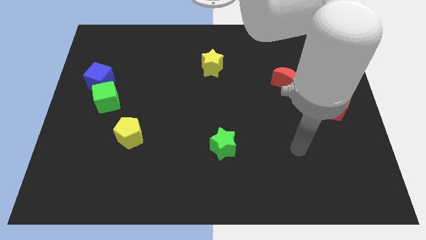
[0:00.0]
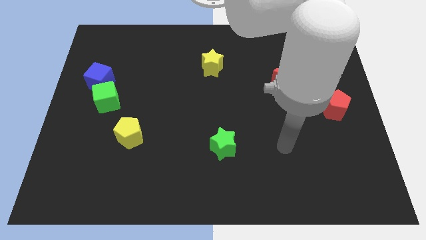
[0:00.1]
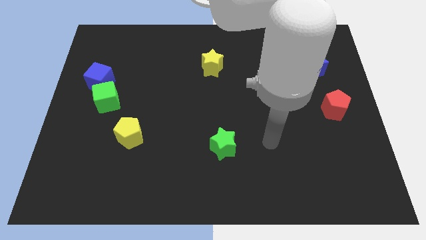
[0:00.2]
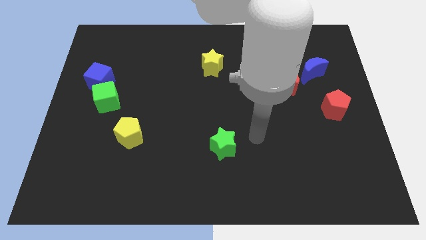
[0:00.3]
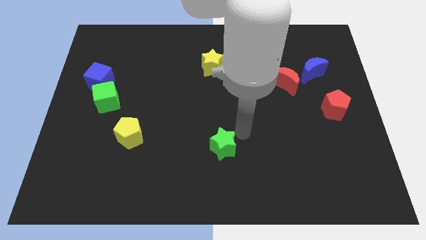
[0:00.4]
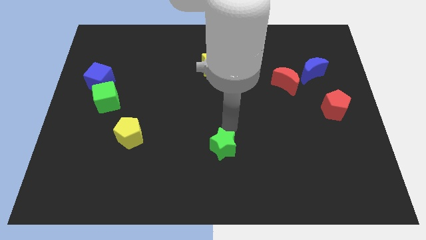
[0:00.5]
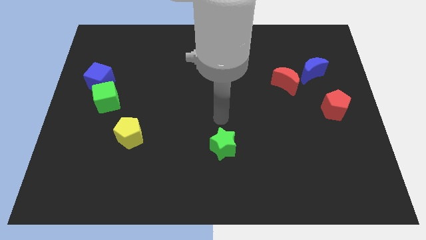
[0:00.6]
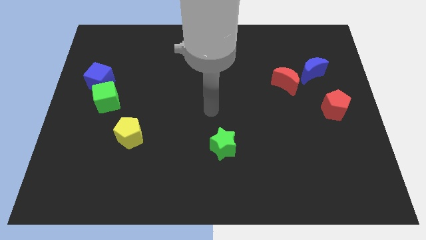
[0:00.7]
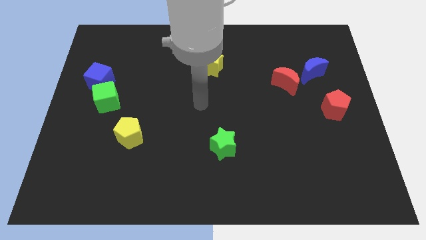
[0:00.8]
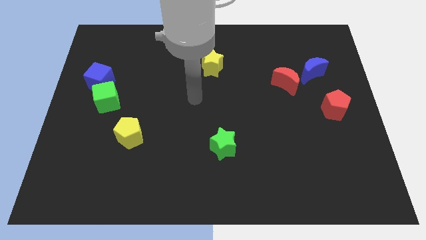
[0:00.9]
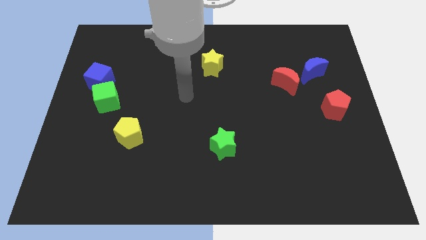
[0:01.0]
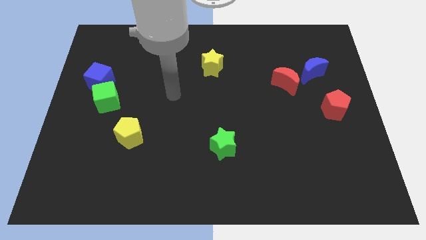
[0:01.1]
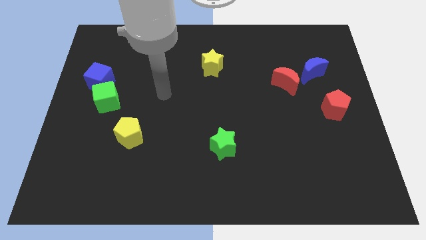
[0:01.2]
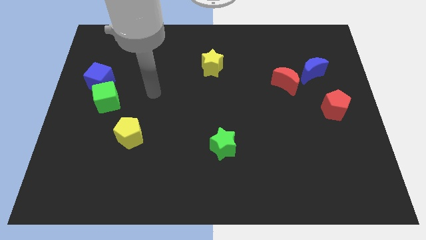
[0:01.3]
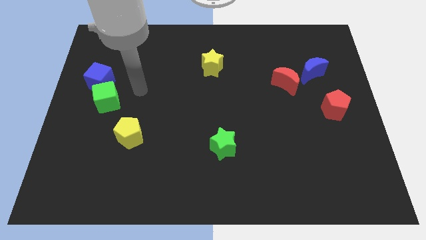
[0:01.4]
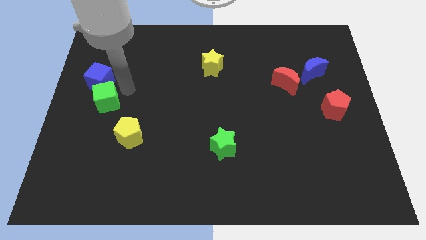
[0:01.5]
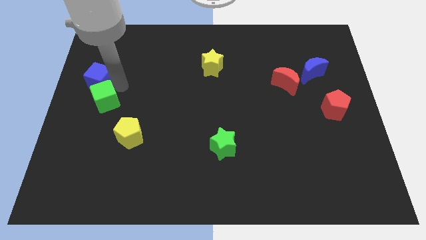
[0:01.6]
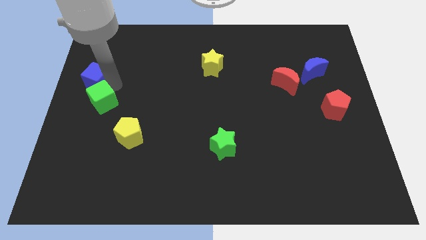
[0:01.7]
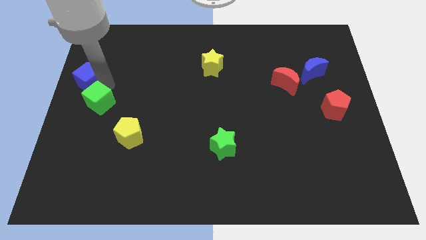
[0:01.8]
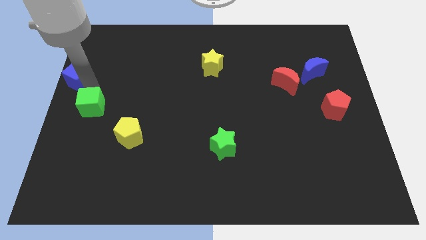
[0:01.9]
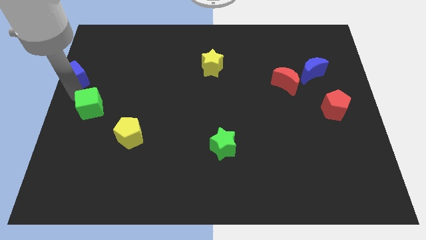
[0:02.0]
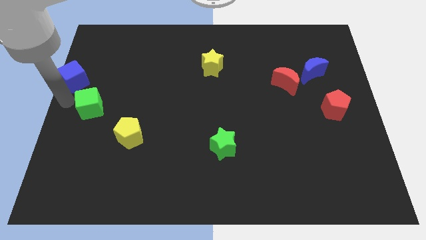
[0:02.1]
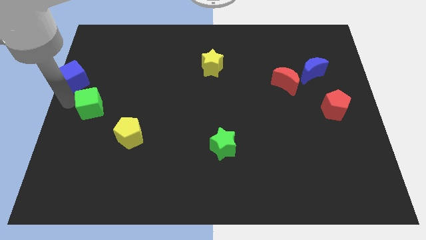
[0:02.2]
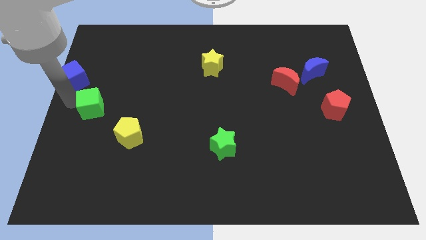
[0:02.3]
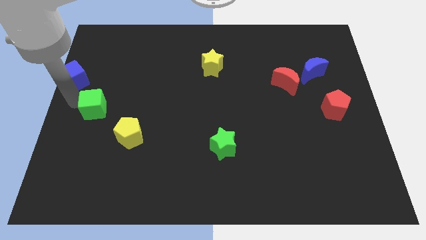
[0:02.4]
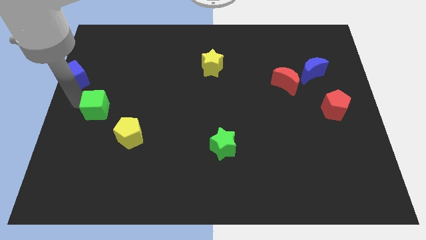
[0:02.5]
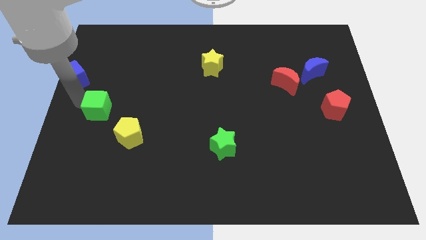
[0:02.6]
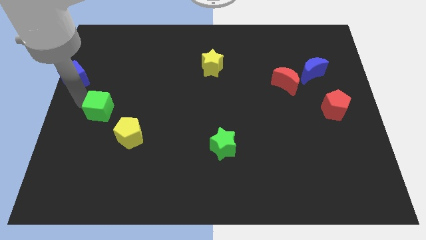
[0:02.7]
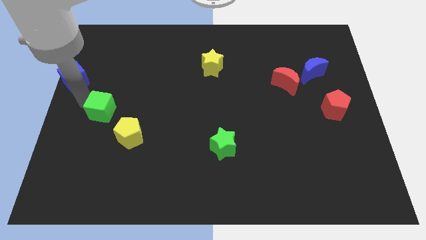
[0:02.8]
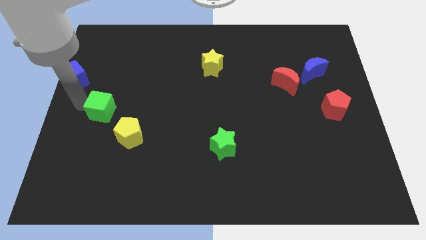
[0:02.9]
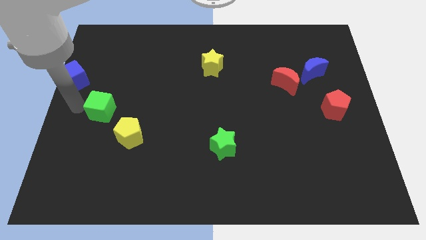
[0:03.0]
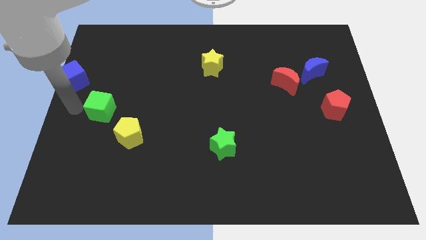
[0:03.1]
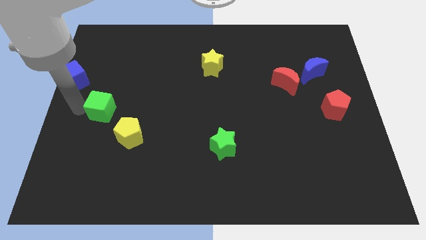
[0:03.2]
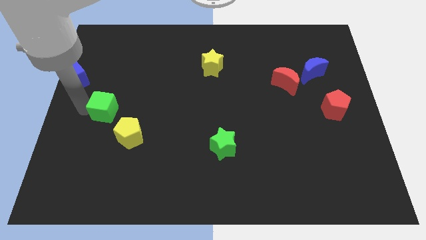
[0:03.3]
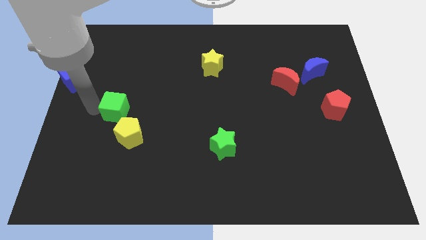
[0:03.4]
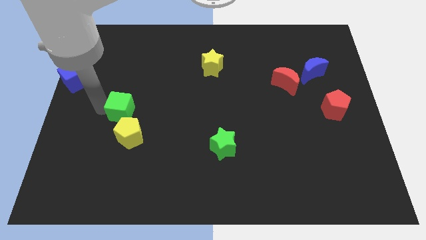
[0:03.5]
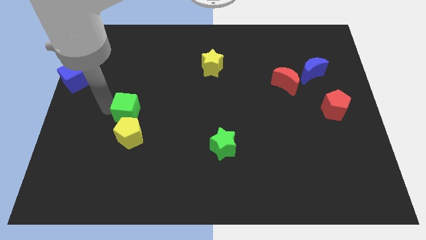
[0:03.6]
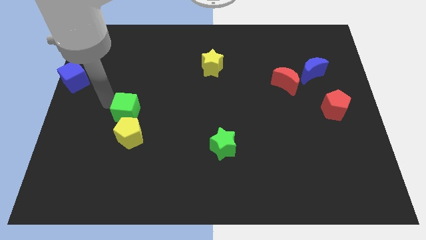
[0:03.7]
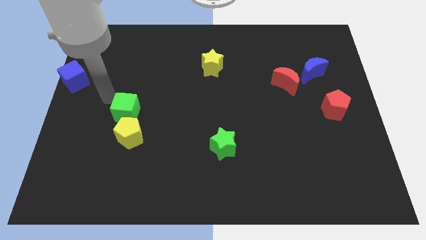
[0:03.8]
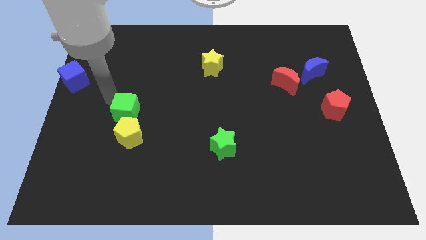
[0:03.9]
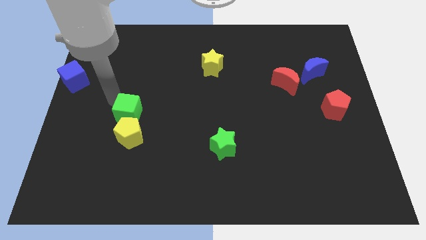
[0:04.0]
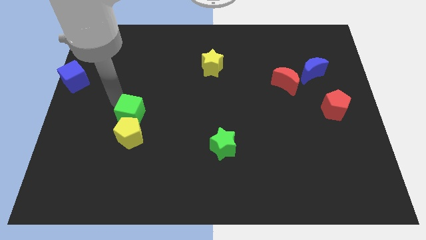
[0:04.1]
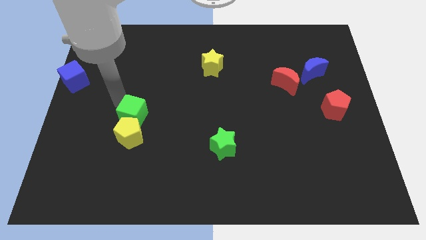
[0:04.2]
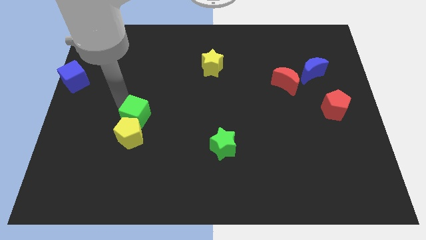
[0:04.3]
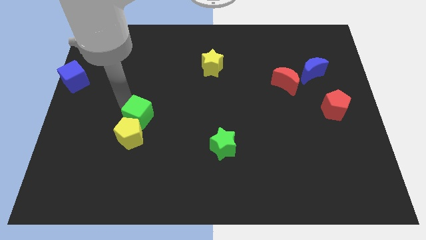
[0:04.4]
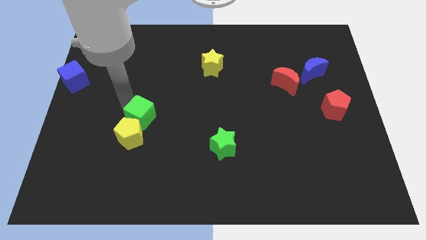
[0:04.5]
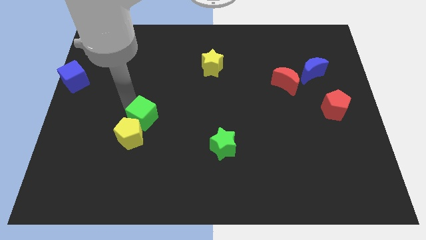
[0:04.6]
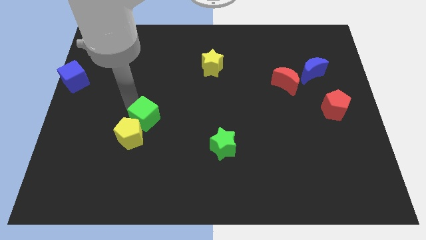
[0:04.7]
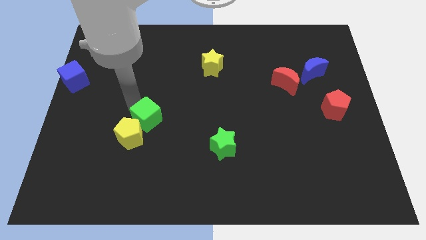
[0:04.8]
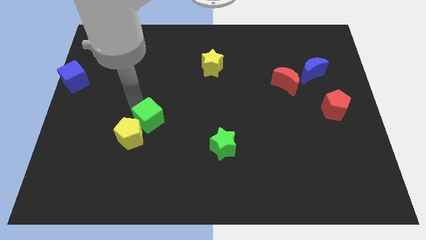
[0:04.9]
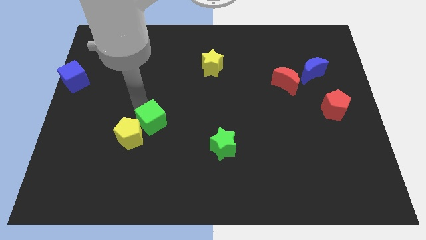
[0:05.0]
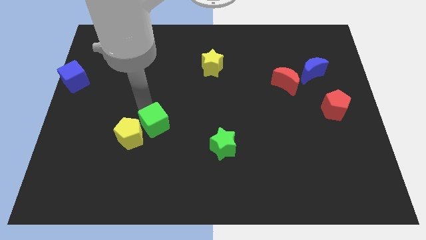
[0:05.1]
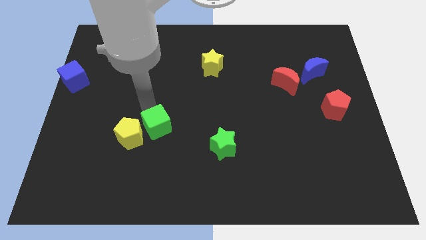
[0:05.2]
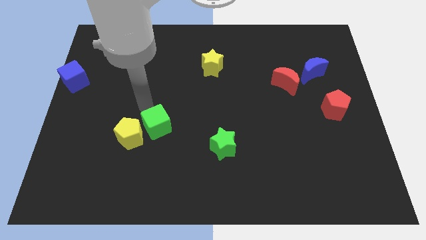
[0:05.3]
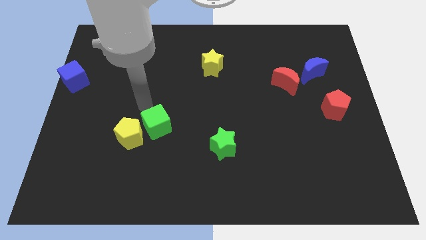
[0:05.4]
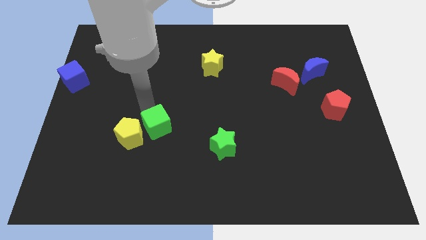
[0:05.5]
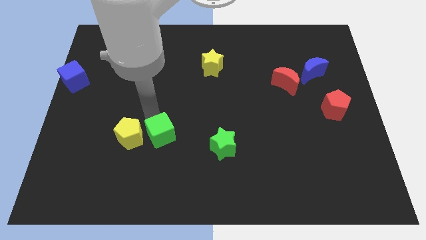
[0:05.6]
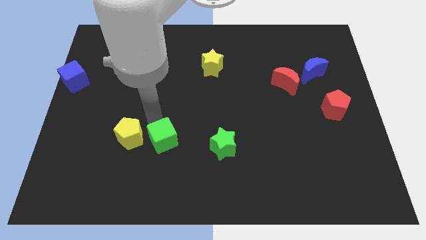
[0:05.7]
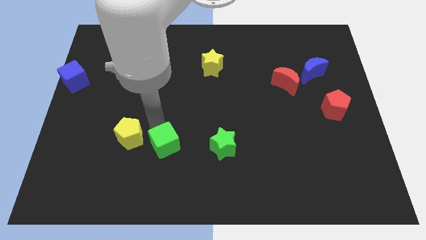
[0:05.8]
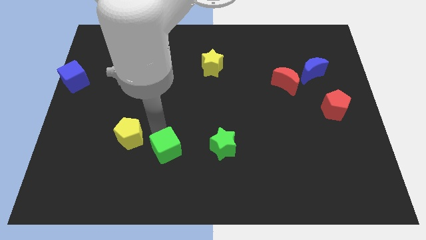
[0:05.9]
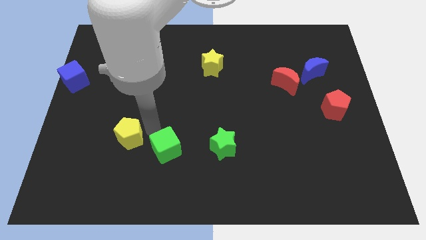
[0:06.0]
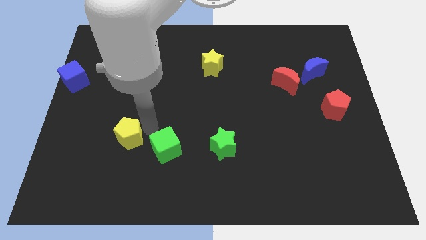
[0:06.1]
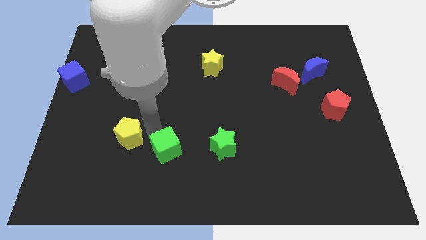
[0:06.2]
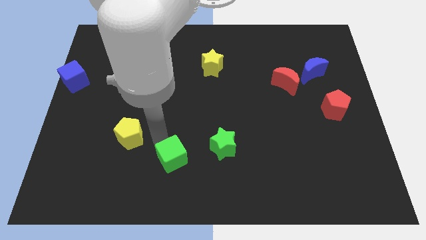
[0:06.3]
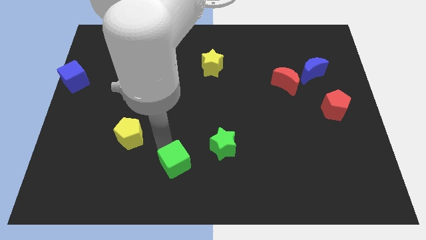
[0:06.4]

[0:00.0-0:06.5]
put the green cube to the bottom side
